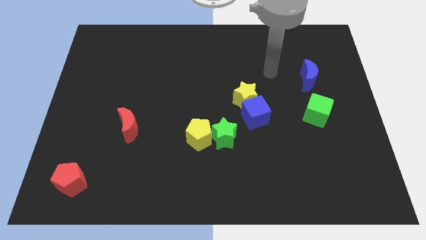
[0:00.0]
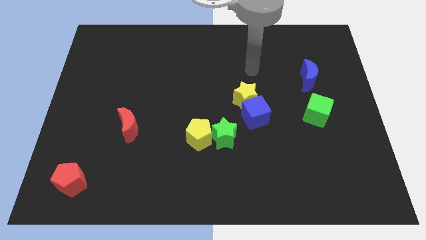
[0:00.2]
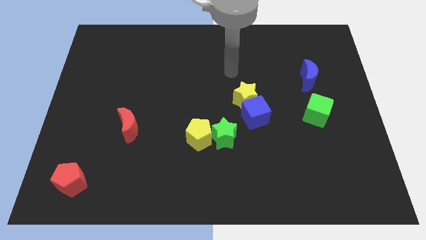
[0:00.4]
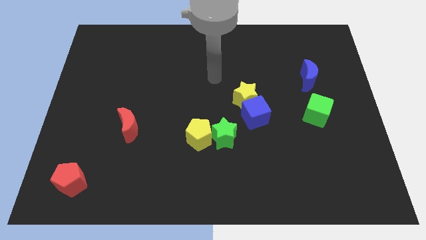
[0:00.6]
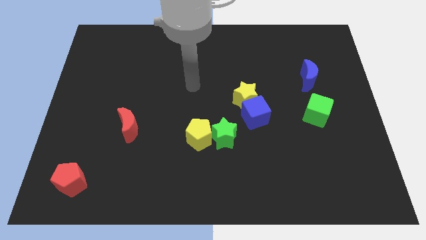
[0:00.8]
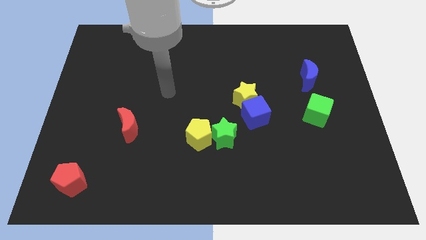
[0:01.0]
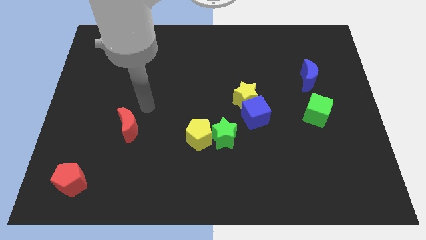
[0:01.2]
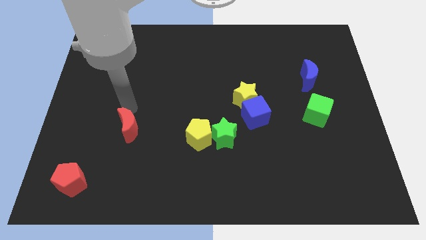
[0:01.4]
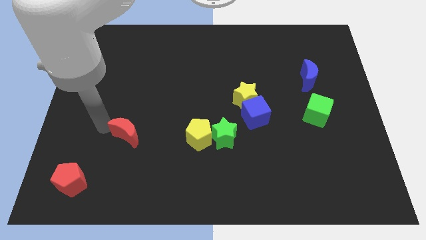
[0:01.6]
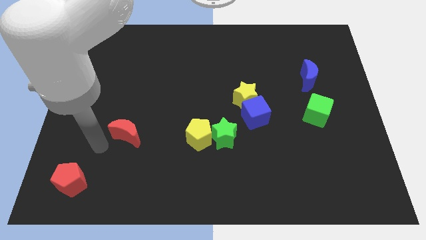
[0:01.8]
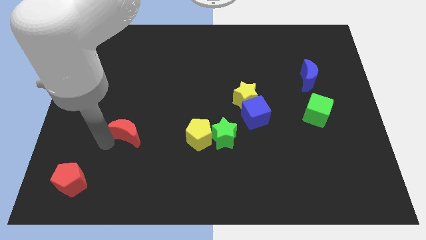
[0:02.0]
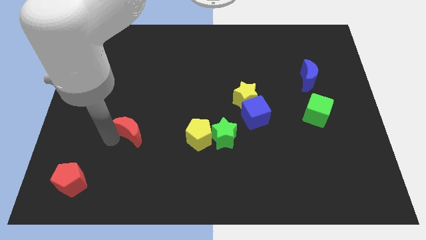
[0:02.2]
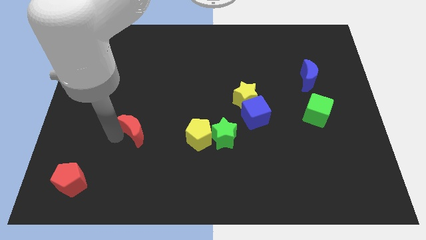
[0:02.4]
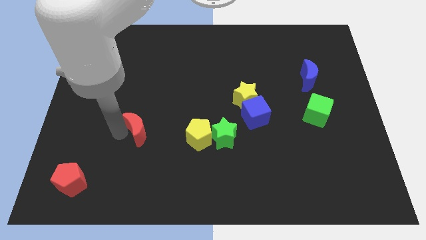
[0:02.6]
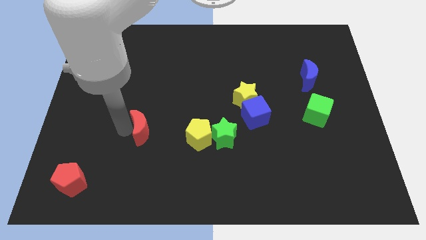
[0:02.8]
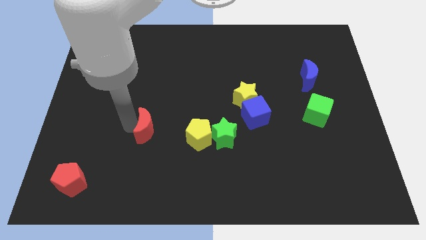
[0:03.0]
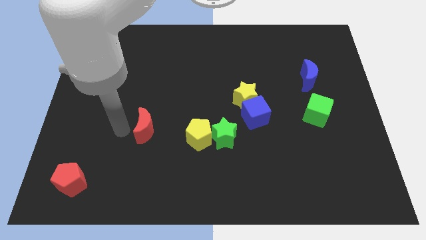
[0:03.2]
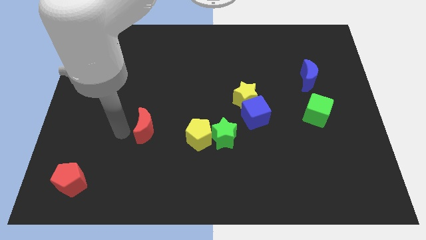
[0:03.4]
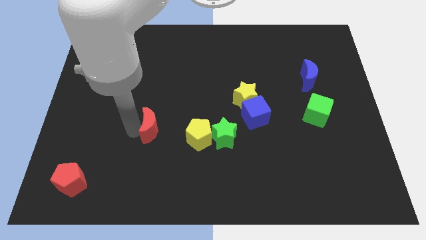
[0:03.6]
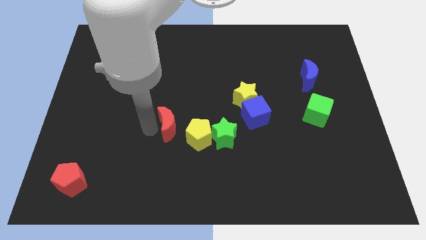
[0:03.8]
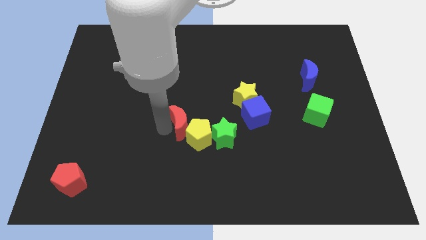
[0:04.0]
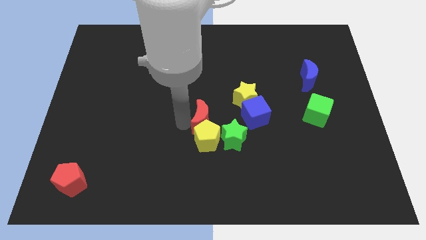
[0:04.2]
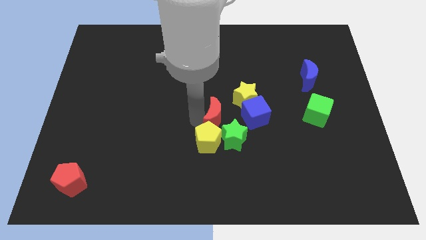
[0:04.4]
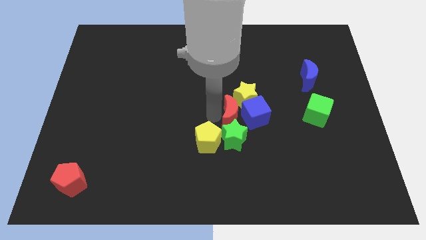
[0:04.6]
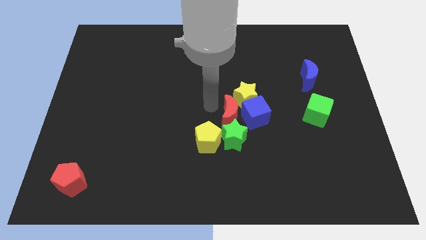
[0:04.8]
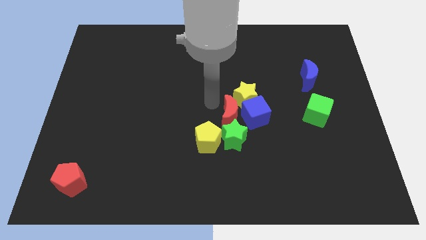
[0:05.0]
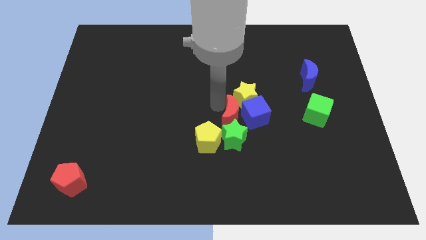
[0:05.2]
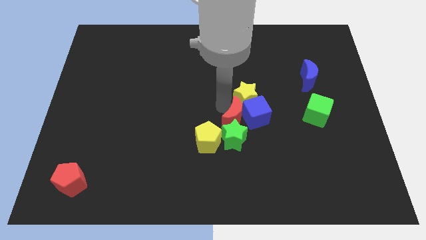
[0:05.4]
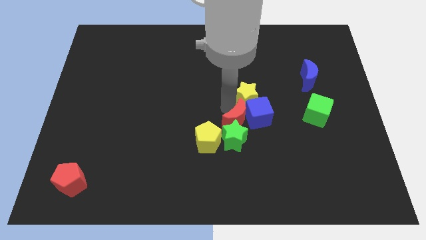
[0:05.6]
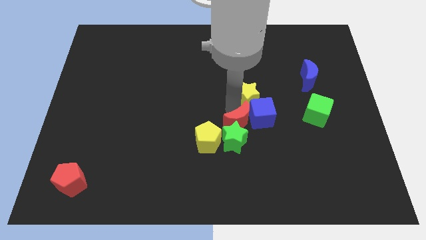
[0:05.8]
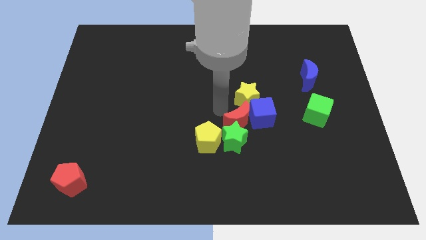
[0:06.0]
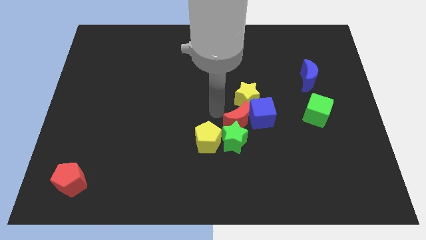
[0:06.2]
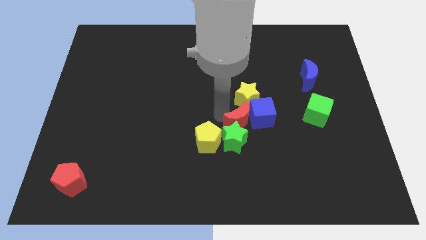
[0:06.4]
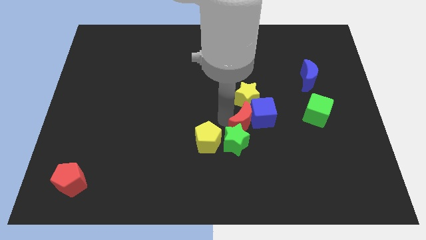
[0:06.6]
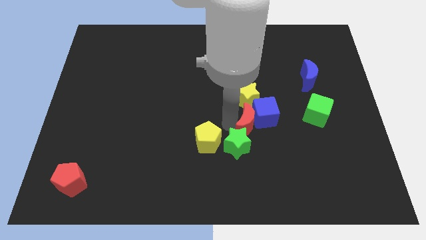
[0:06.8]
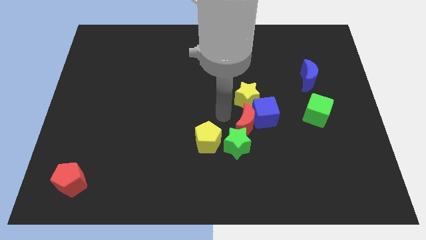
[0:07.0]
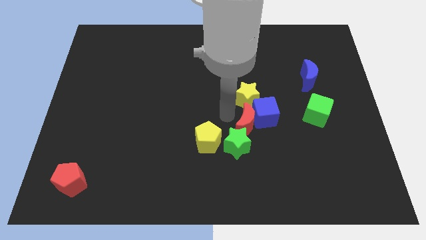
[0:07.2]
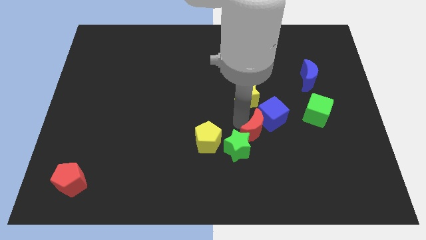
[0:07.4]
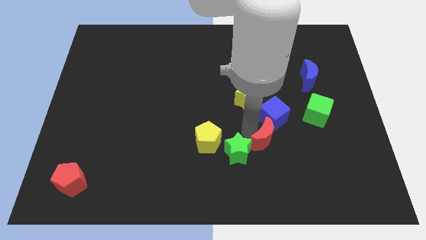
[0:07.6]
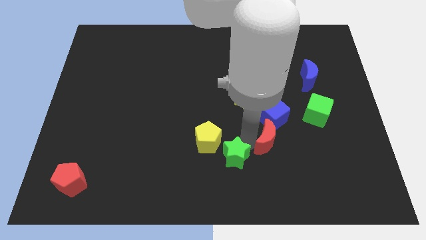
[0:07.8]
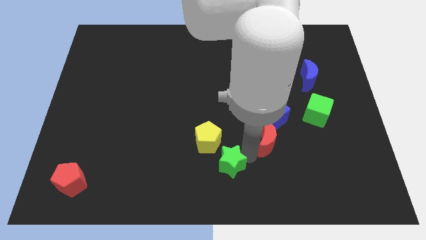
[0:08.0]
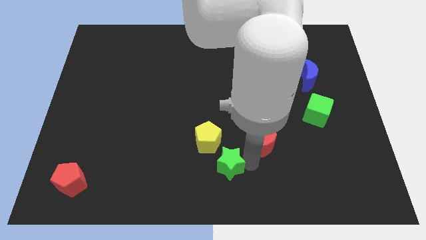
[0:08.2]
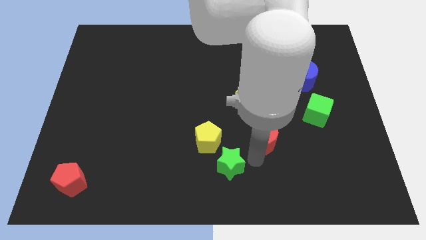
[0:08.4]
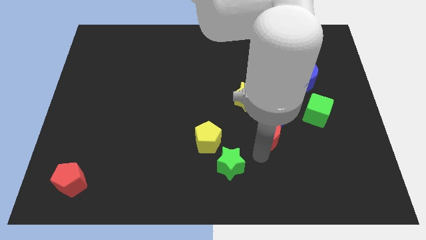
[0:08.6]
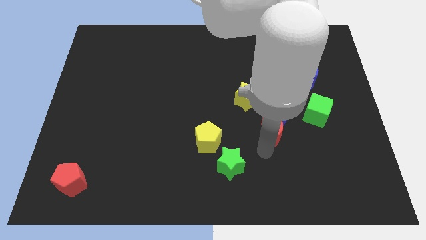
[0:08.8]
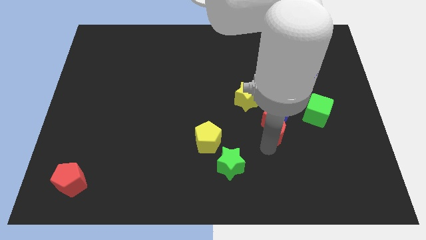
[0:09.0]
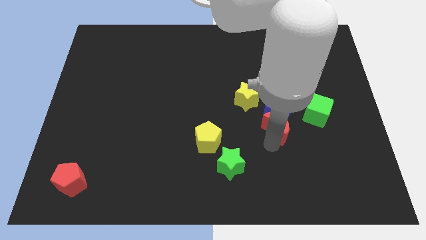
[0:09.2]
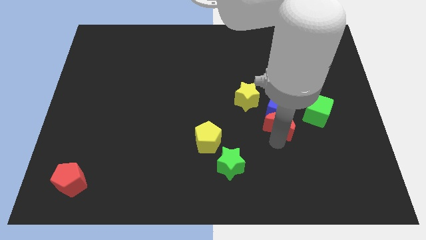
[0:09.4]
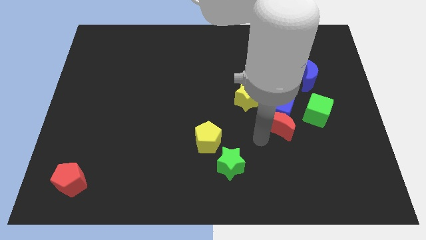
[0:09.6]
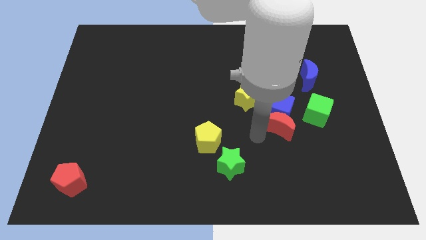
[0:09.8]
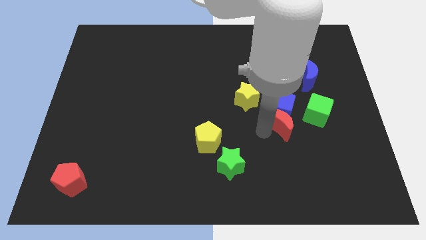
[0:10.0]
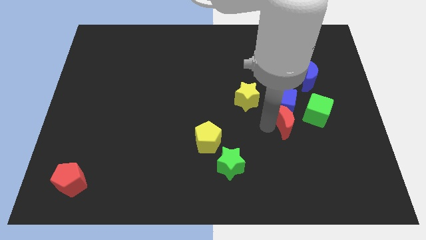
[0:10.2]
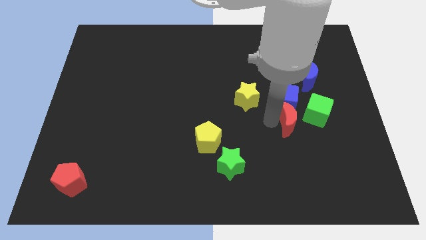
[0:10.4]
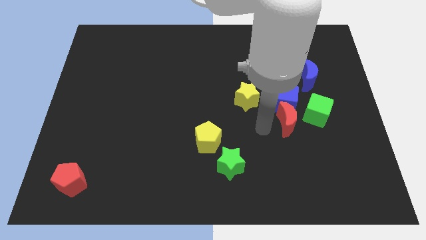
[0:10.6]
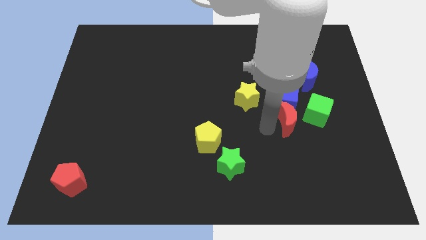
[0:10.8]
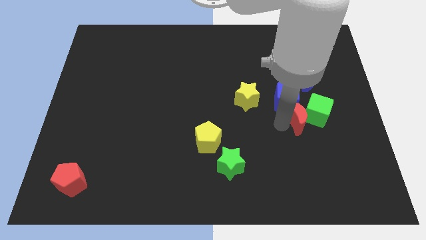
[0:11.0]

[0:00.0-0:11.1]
put the red moon close to the green cube

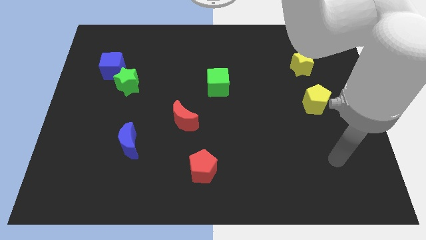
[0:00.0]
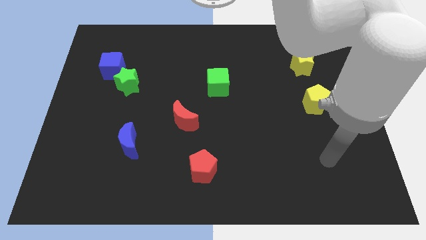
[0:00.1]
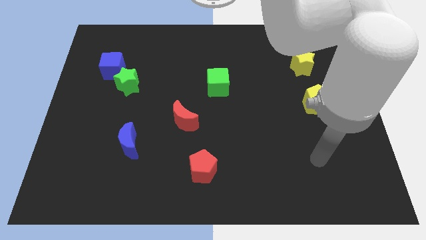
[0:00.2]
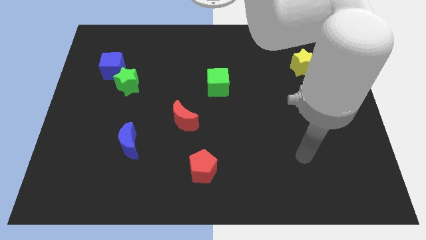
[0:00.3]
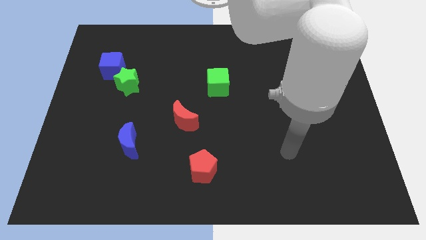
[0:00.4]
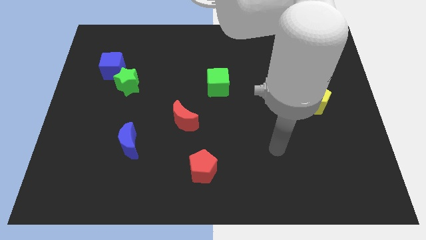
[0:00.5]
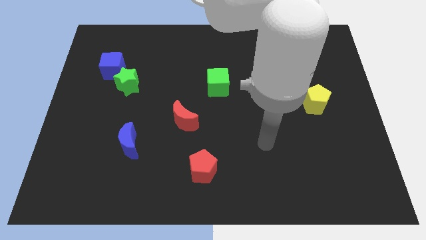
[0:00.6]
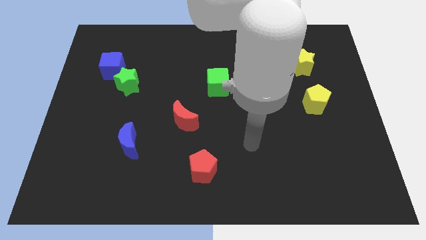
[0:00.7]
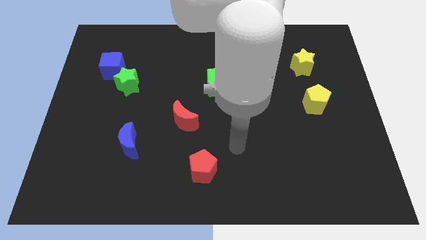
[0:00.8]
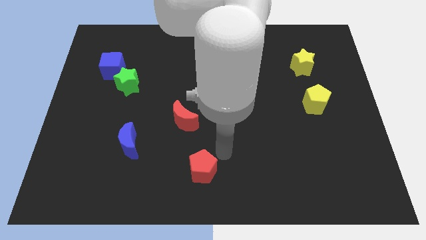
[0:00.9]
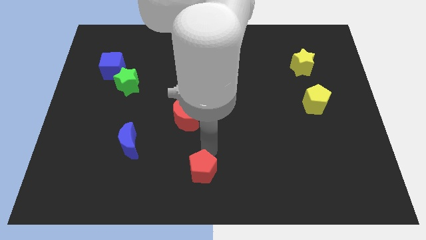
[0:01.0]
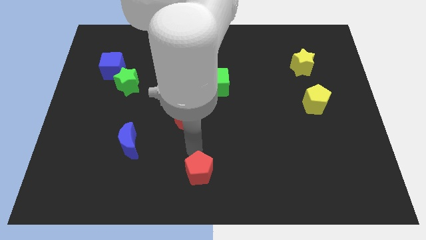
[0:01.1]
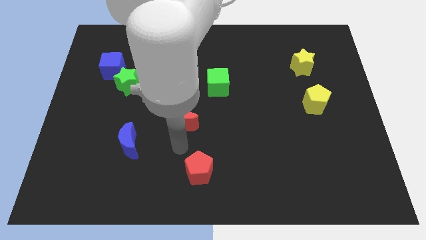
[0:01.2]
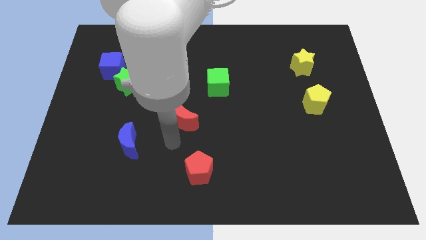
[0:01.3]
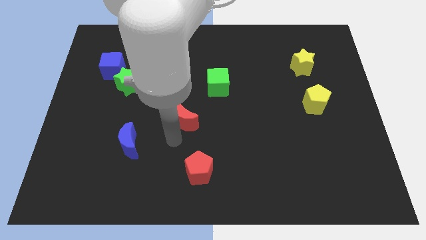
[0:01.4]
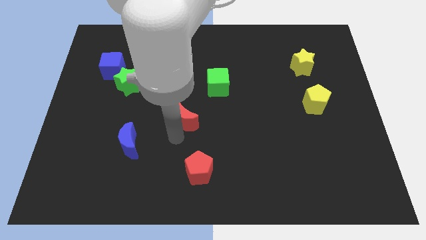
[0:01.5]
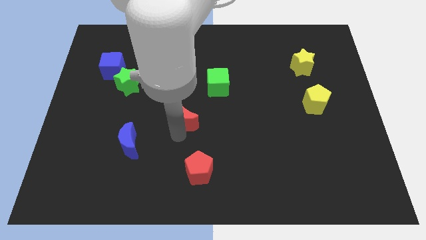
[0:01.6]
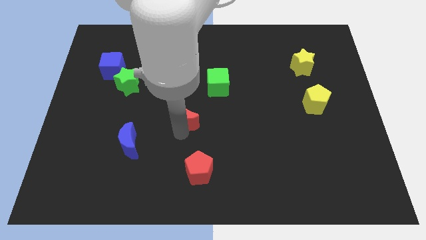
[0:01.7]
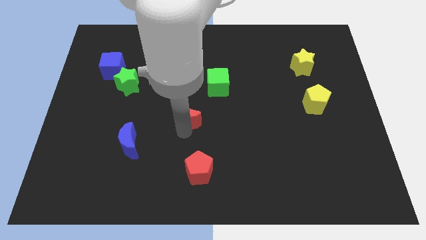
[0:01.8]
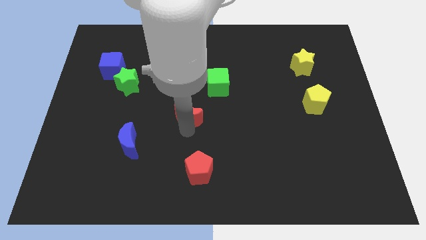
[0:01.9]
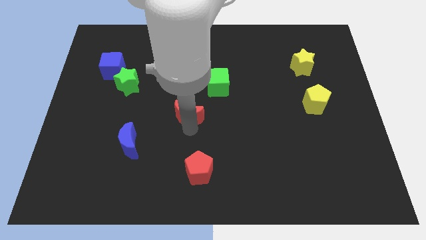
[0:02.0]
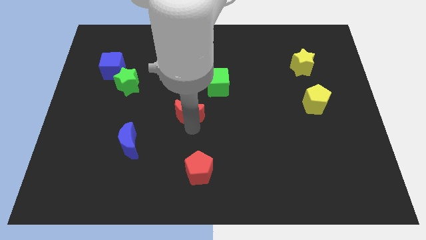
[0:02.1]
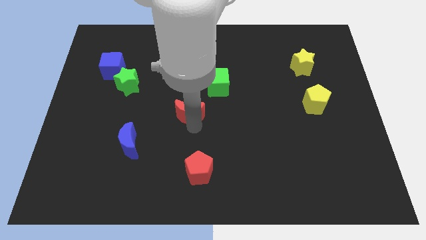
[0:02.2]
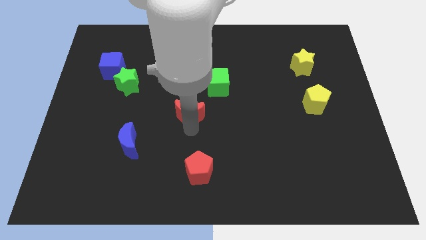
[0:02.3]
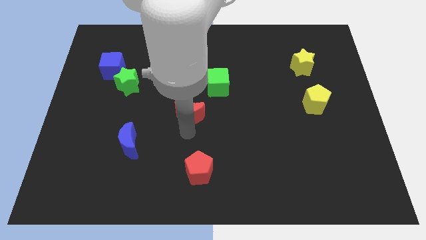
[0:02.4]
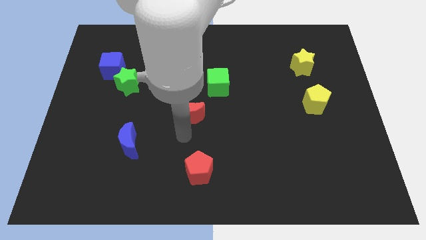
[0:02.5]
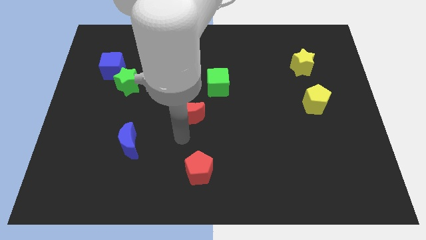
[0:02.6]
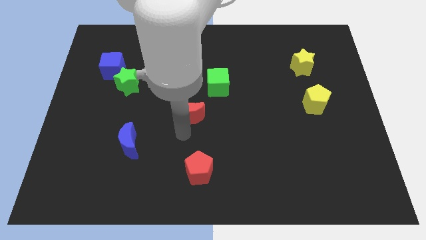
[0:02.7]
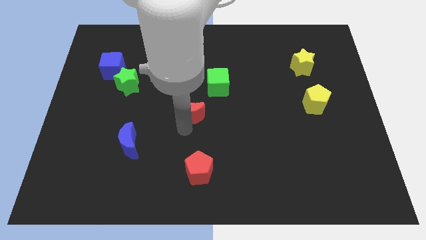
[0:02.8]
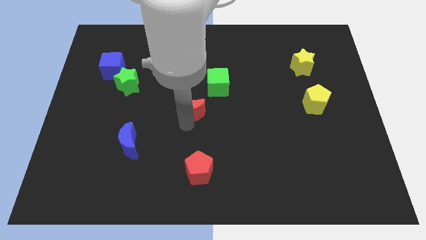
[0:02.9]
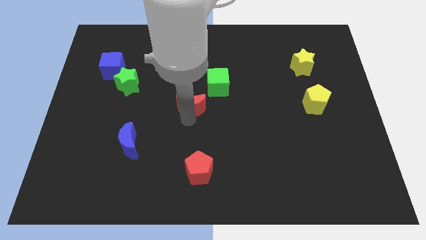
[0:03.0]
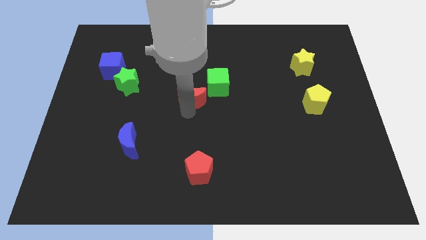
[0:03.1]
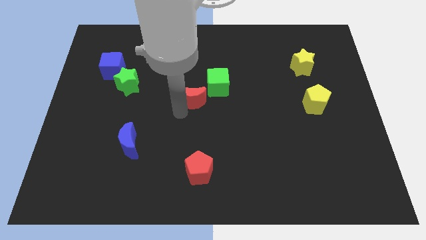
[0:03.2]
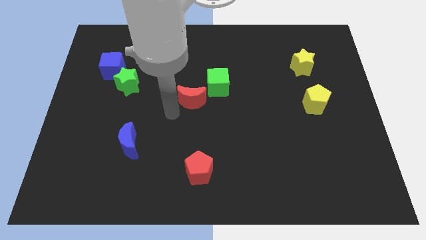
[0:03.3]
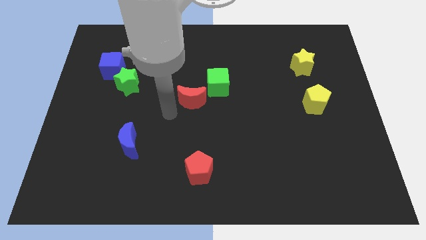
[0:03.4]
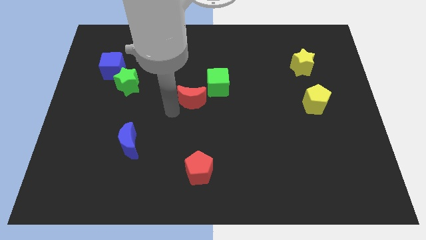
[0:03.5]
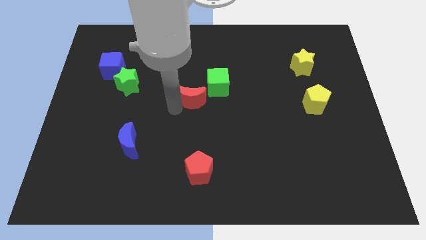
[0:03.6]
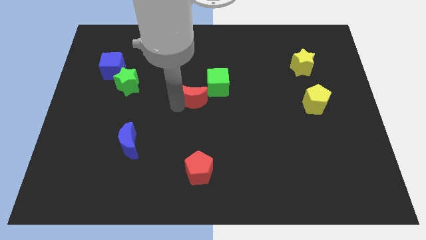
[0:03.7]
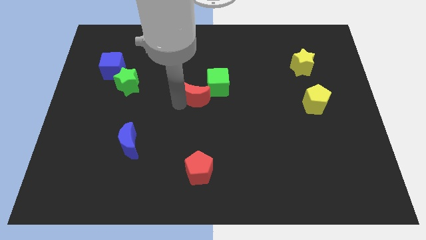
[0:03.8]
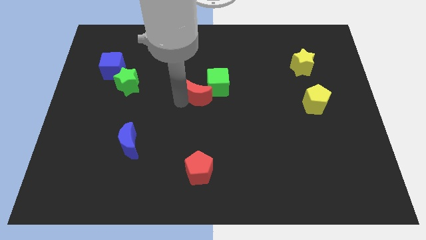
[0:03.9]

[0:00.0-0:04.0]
move the red moon to the green cube
